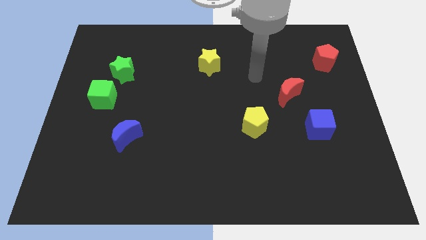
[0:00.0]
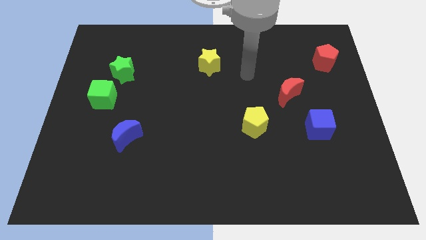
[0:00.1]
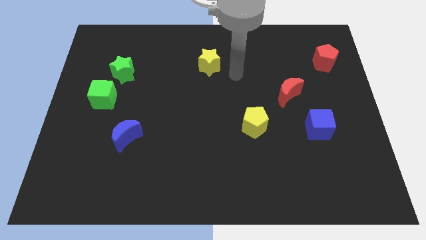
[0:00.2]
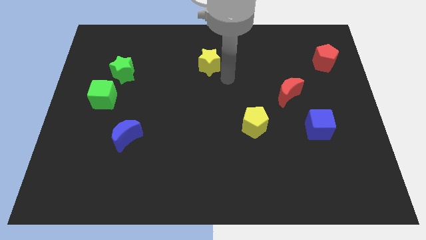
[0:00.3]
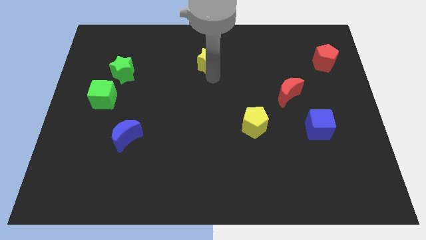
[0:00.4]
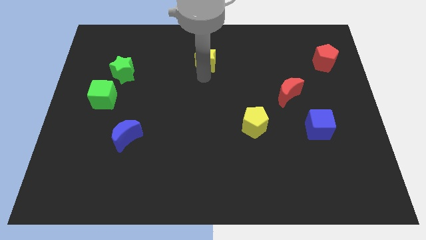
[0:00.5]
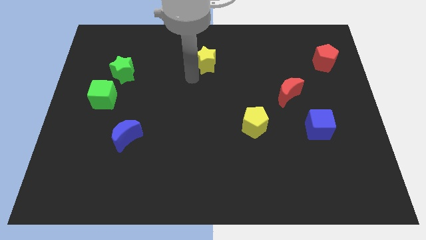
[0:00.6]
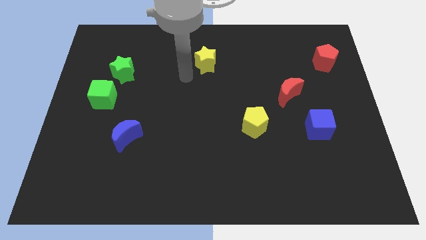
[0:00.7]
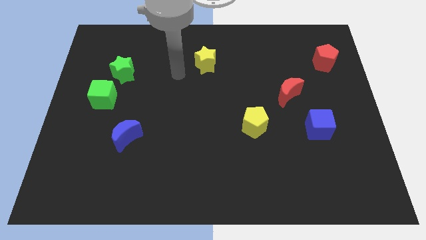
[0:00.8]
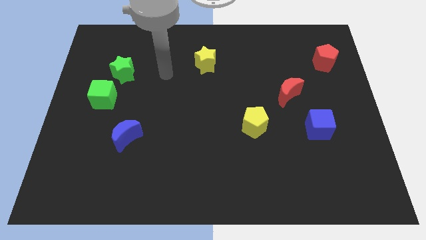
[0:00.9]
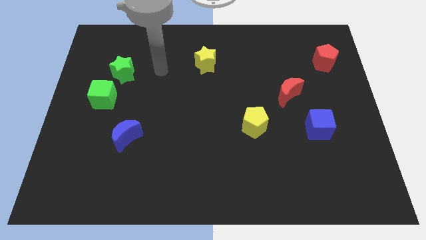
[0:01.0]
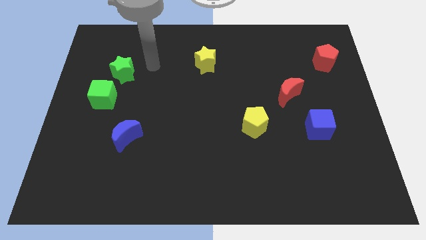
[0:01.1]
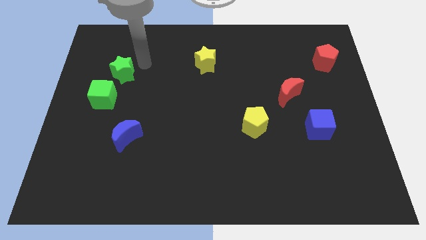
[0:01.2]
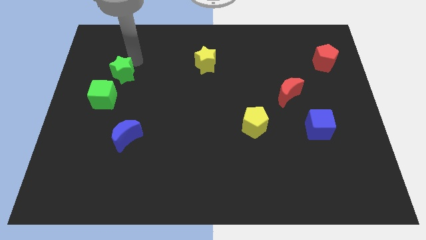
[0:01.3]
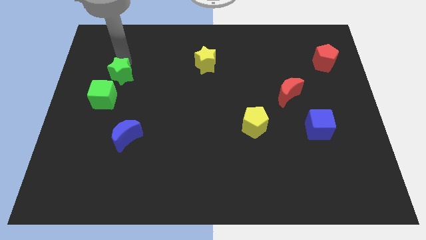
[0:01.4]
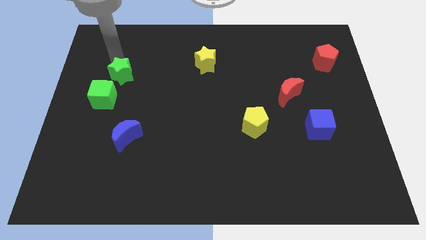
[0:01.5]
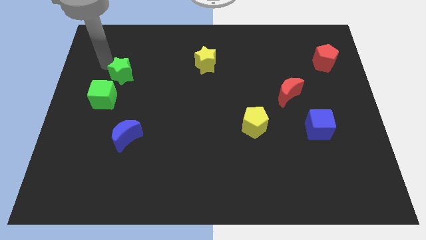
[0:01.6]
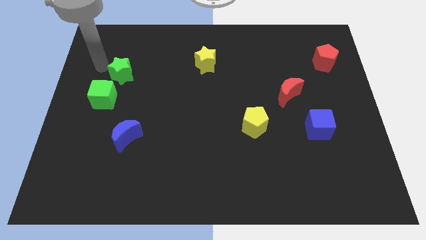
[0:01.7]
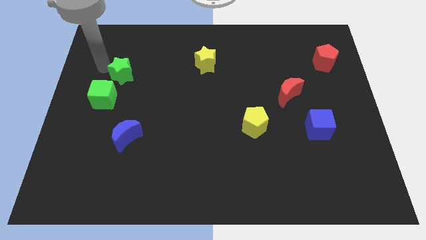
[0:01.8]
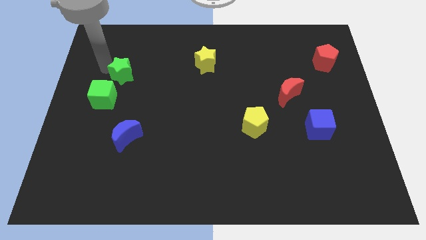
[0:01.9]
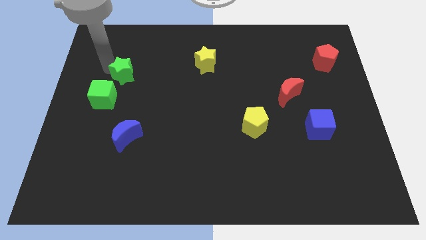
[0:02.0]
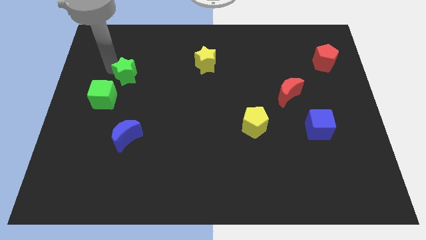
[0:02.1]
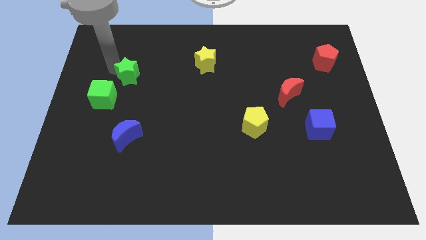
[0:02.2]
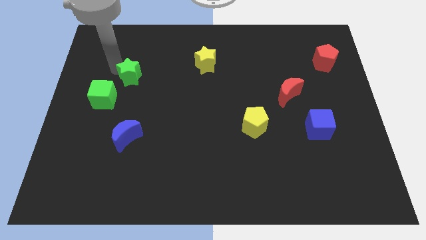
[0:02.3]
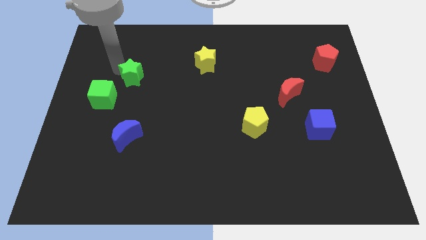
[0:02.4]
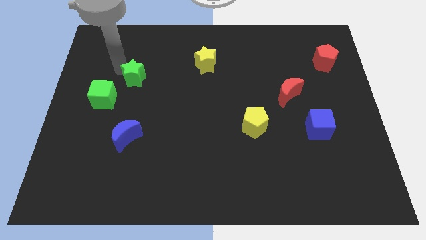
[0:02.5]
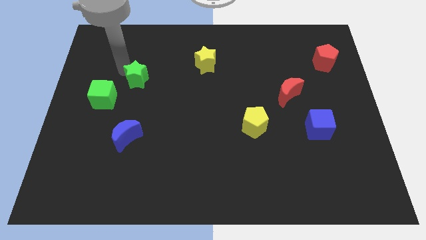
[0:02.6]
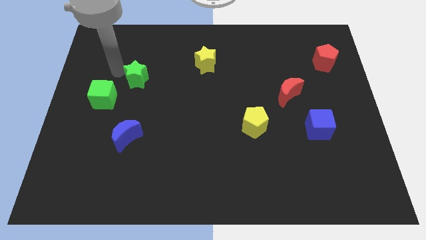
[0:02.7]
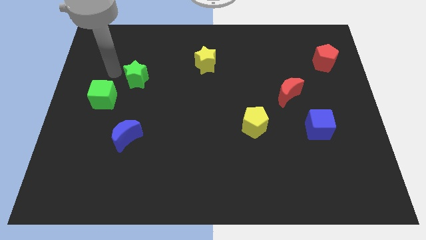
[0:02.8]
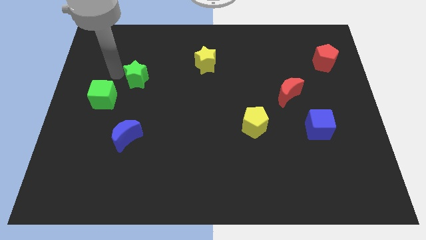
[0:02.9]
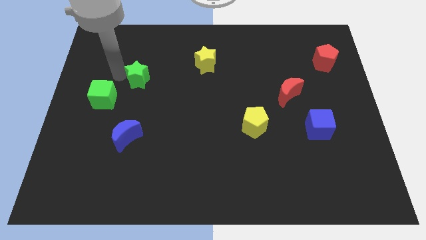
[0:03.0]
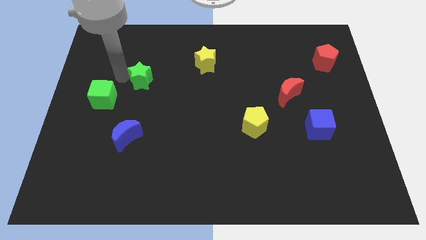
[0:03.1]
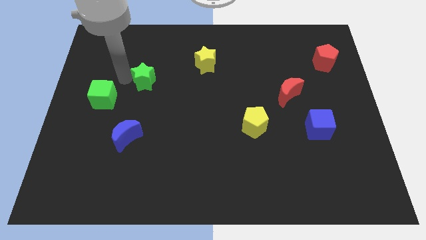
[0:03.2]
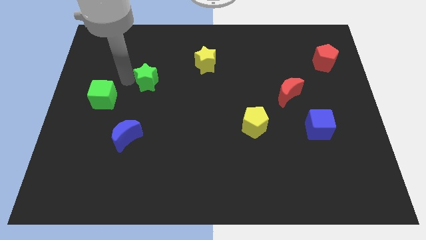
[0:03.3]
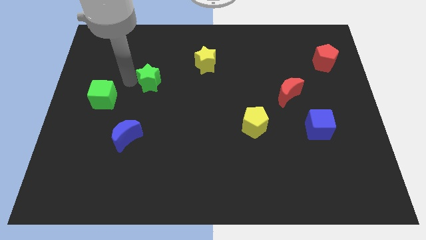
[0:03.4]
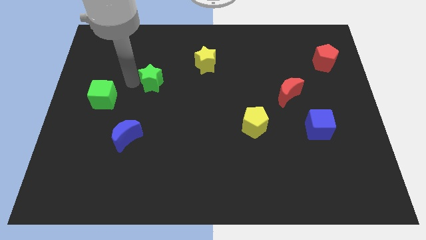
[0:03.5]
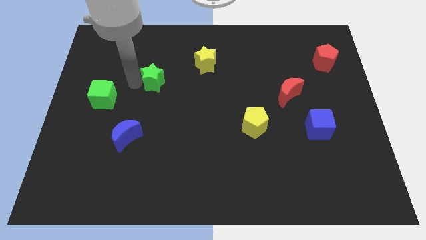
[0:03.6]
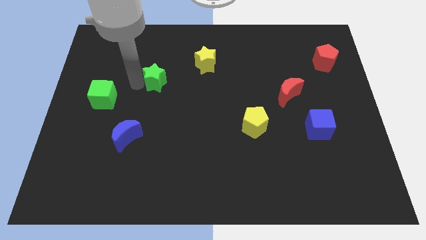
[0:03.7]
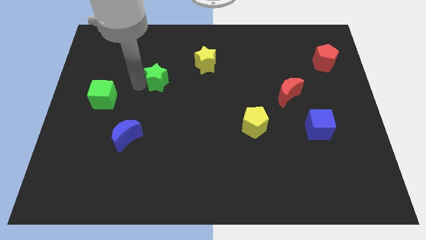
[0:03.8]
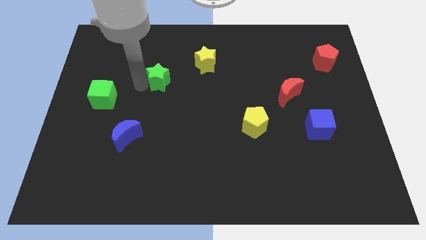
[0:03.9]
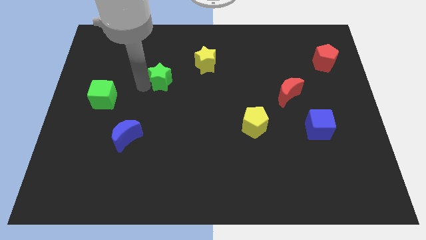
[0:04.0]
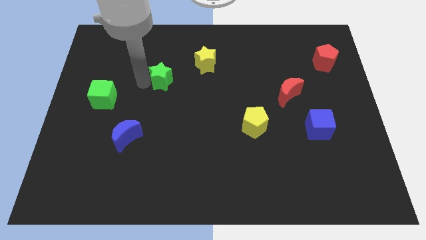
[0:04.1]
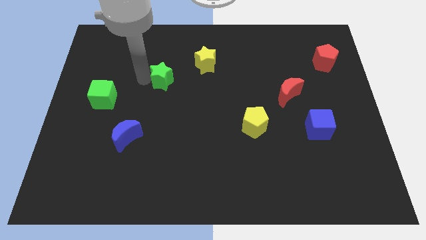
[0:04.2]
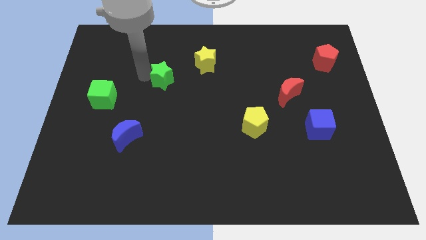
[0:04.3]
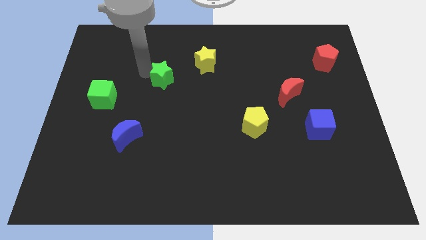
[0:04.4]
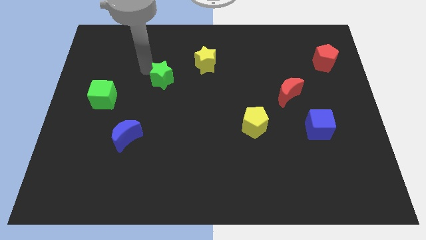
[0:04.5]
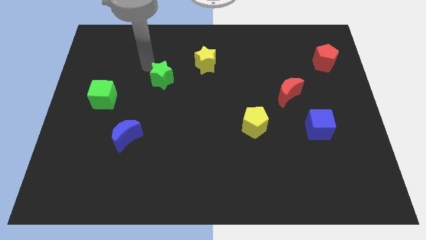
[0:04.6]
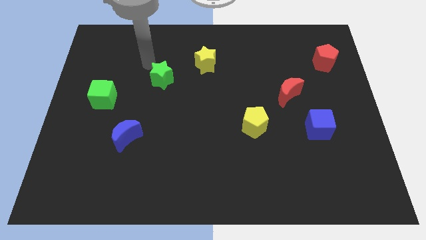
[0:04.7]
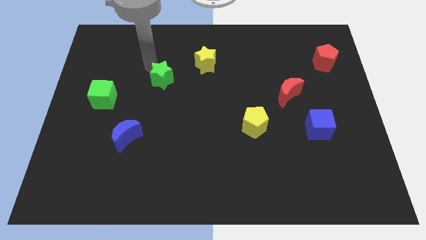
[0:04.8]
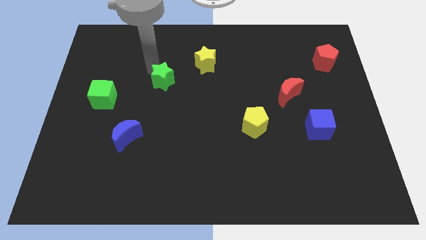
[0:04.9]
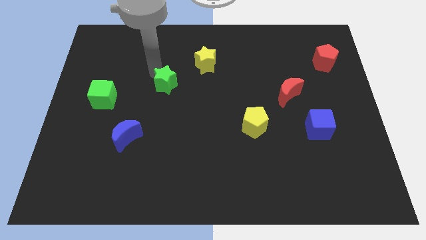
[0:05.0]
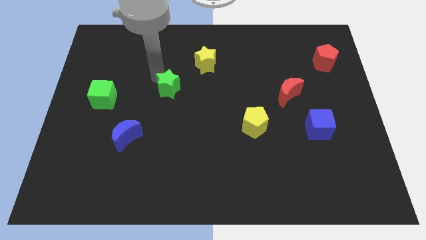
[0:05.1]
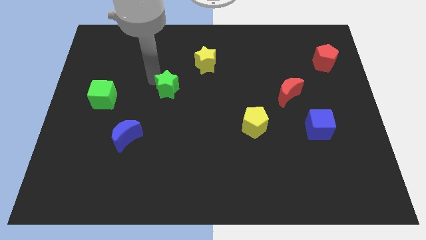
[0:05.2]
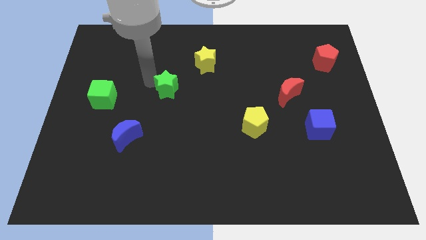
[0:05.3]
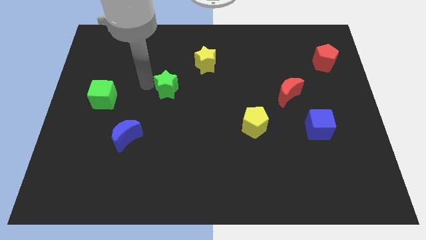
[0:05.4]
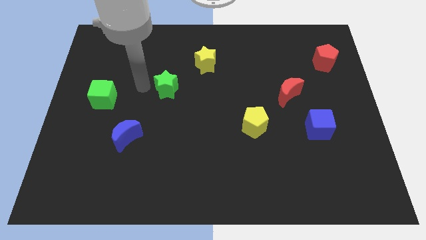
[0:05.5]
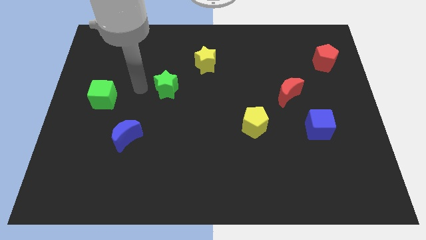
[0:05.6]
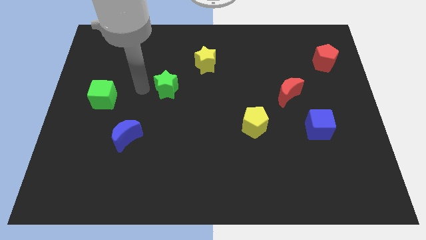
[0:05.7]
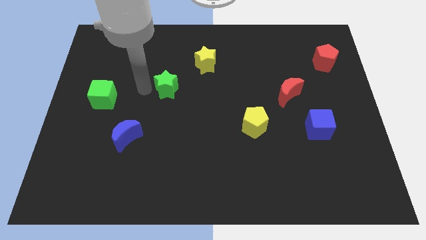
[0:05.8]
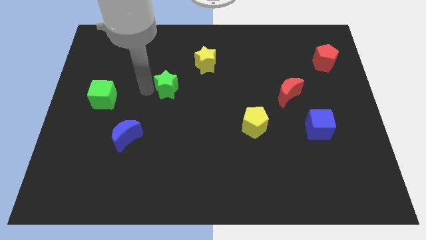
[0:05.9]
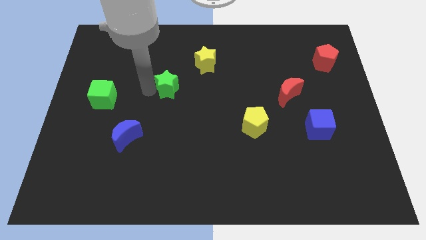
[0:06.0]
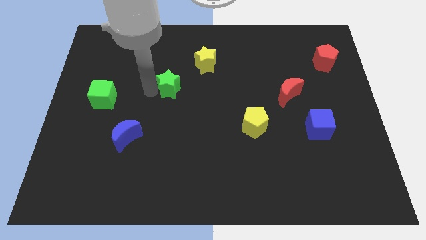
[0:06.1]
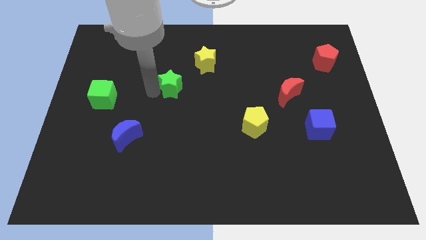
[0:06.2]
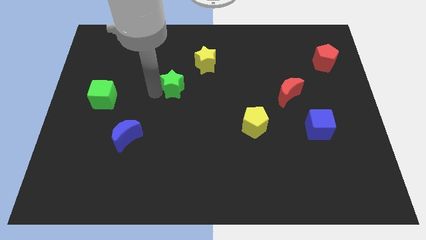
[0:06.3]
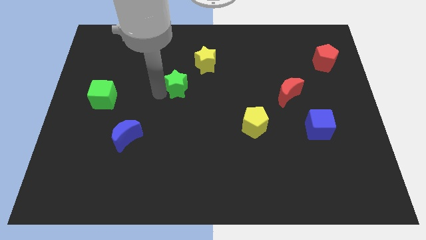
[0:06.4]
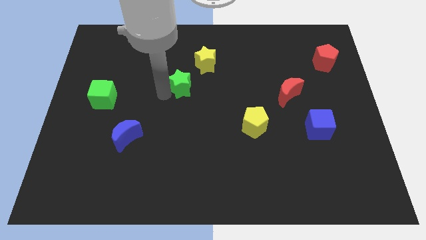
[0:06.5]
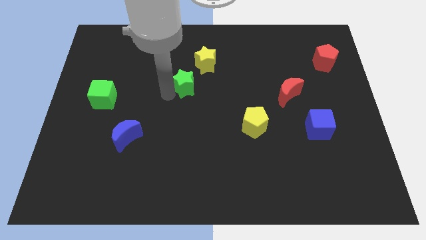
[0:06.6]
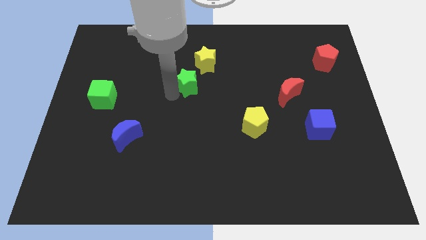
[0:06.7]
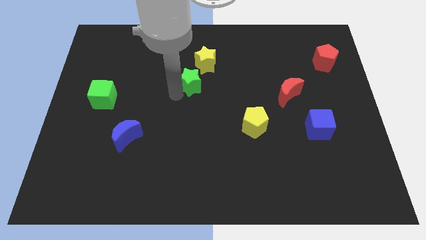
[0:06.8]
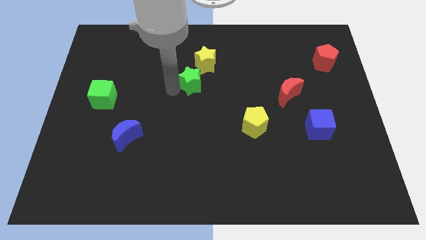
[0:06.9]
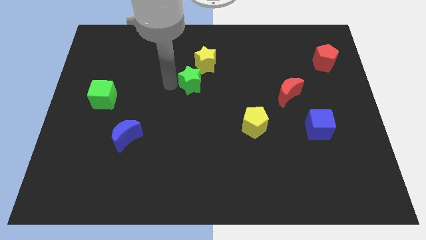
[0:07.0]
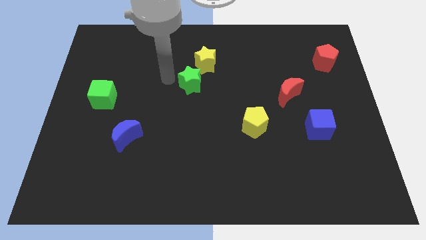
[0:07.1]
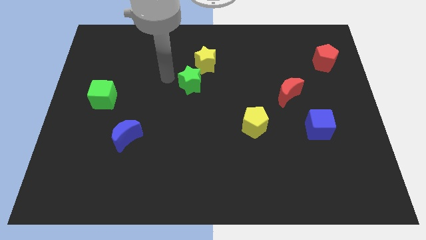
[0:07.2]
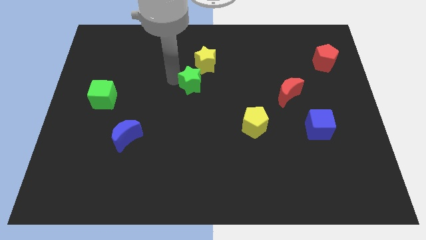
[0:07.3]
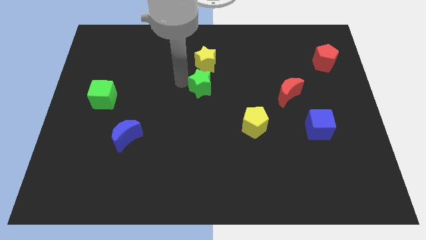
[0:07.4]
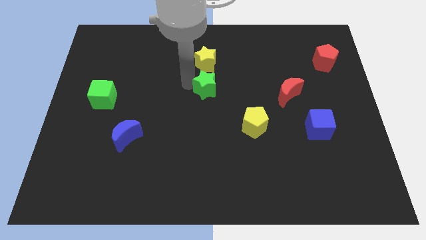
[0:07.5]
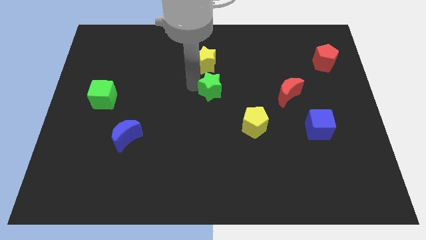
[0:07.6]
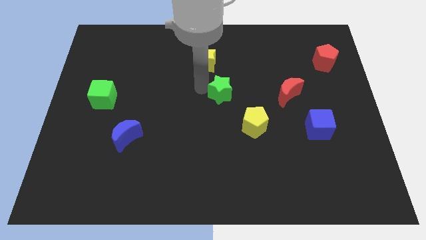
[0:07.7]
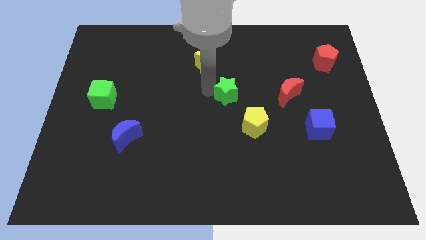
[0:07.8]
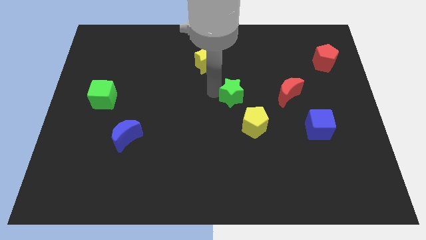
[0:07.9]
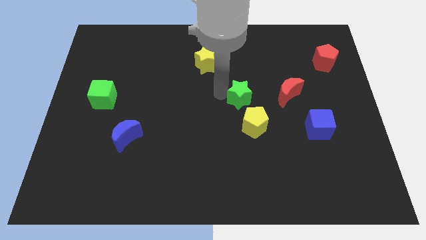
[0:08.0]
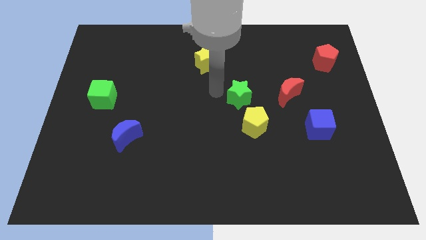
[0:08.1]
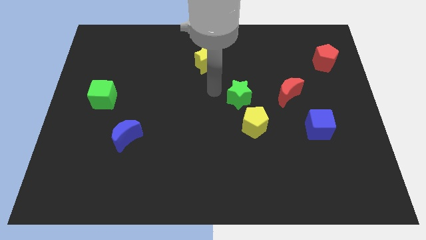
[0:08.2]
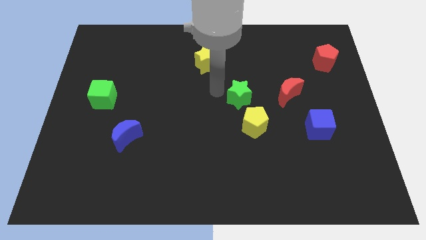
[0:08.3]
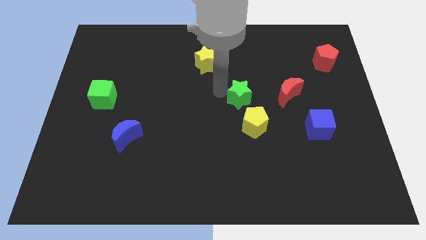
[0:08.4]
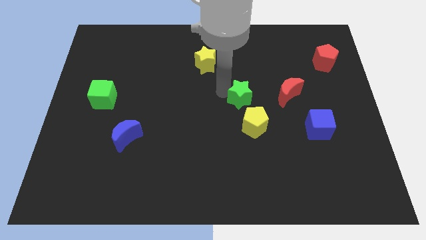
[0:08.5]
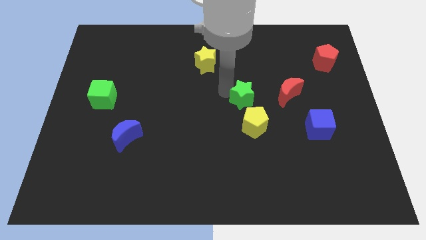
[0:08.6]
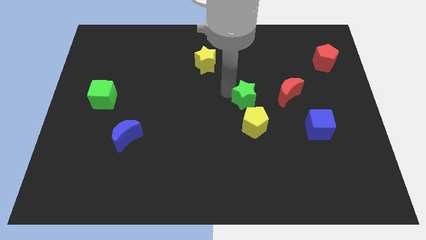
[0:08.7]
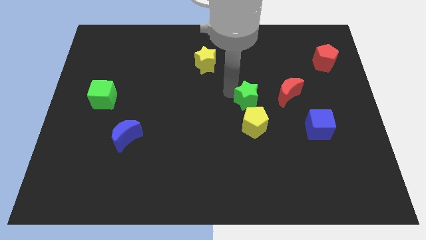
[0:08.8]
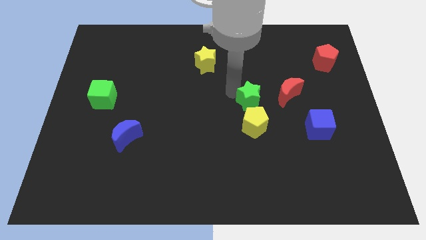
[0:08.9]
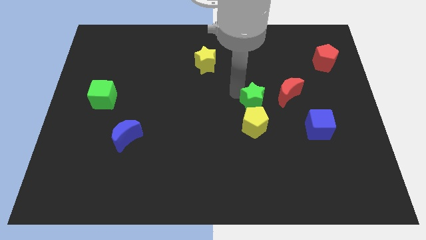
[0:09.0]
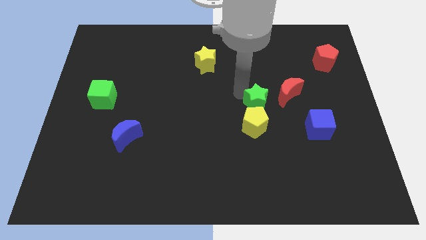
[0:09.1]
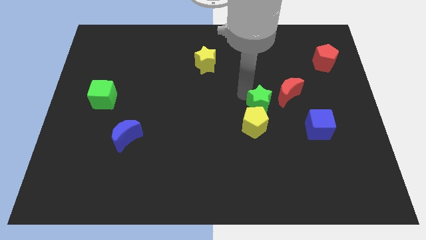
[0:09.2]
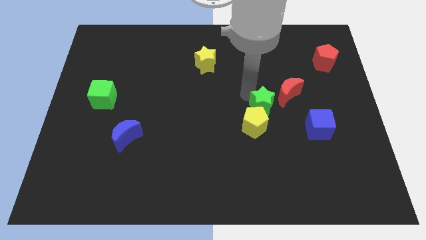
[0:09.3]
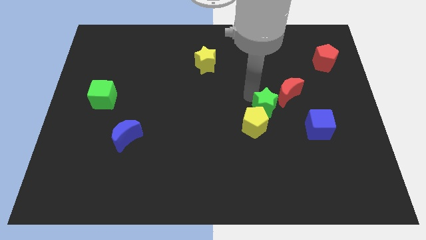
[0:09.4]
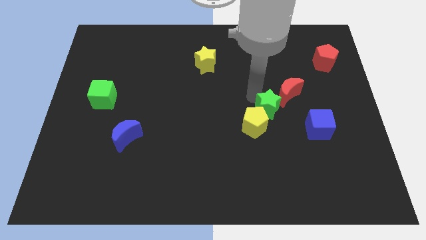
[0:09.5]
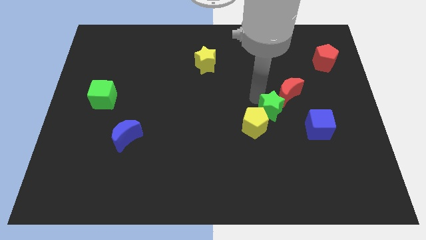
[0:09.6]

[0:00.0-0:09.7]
push the green star to the left side of the blue cube
